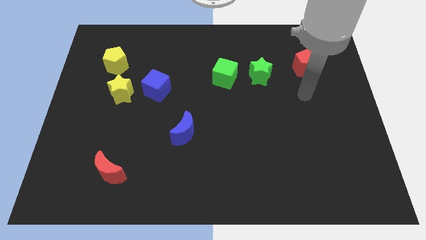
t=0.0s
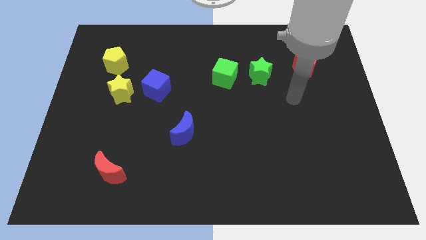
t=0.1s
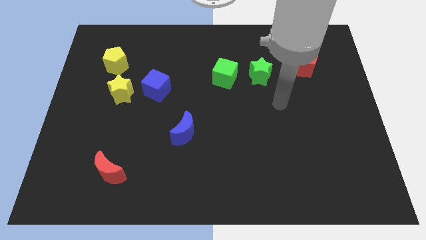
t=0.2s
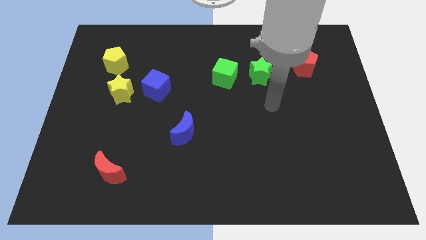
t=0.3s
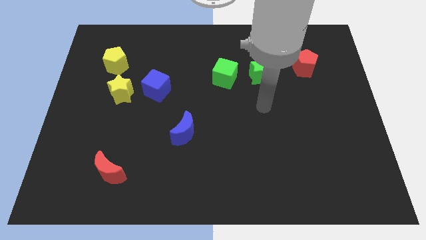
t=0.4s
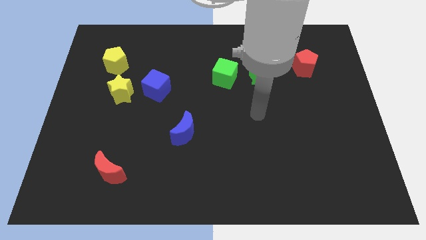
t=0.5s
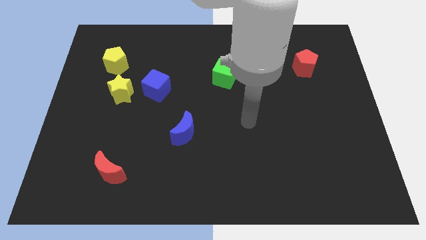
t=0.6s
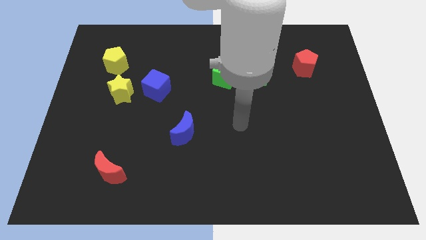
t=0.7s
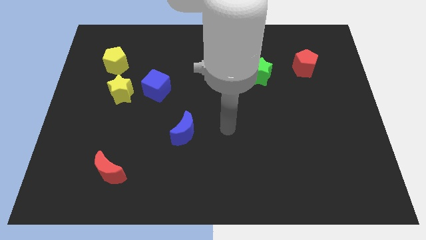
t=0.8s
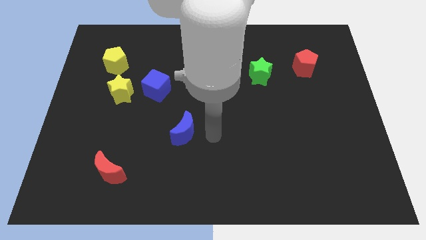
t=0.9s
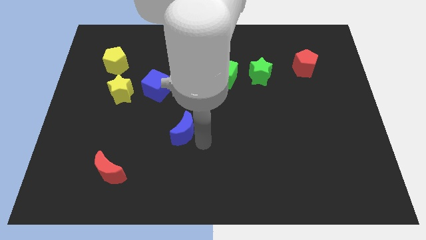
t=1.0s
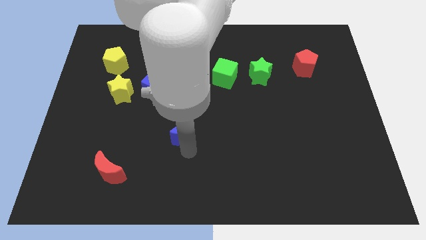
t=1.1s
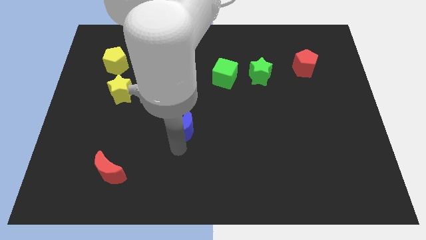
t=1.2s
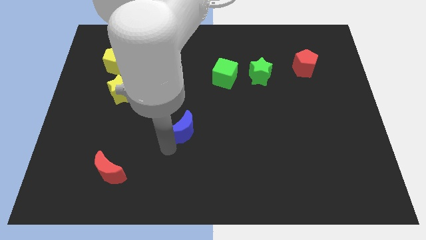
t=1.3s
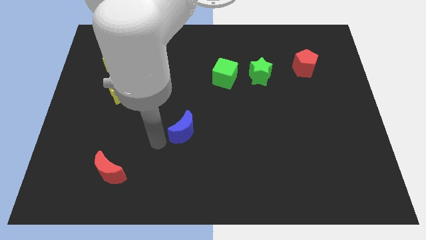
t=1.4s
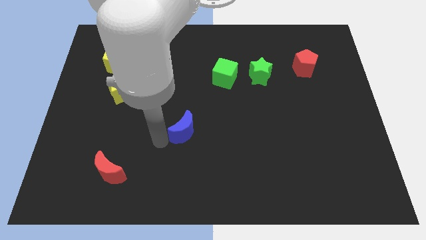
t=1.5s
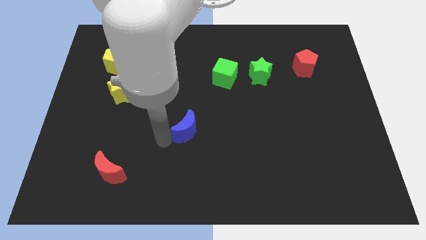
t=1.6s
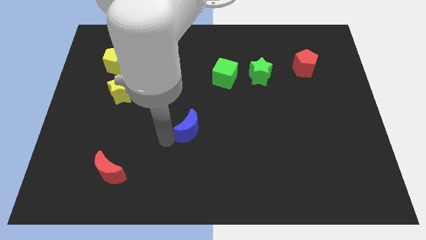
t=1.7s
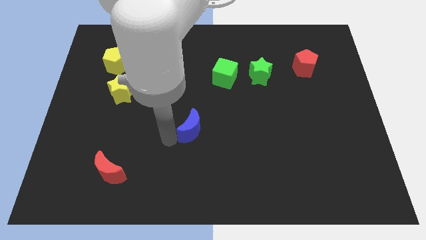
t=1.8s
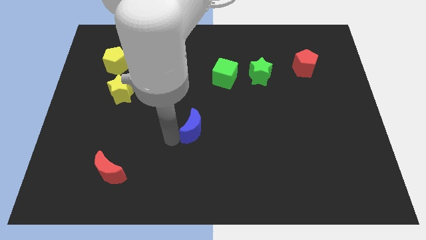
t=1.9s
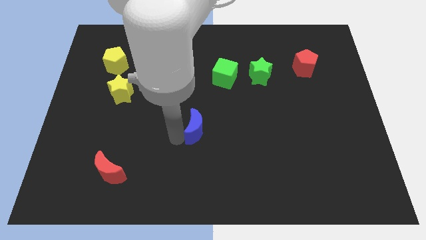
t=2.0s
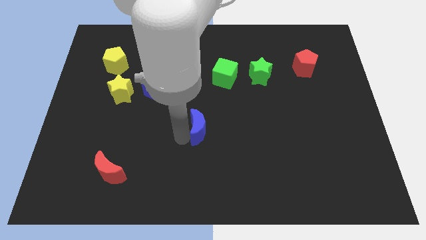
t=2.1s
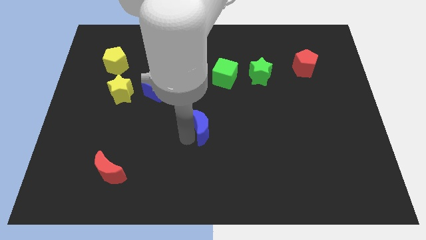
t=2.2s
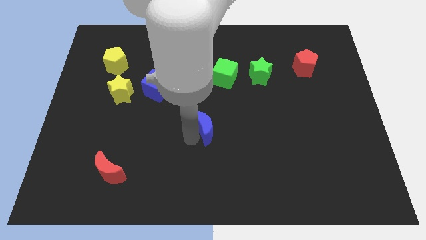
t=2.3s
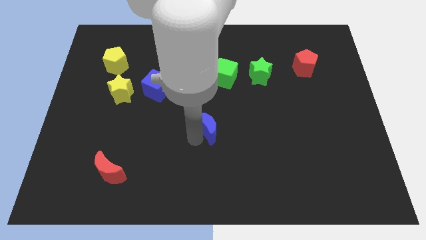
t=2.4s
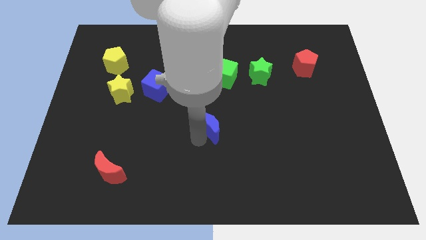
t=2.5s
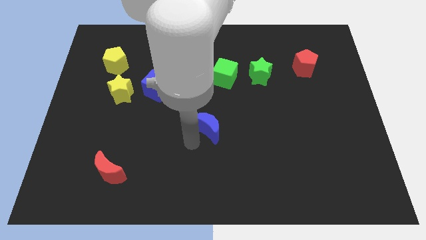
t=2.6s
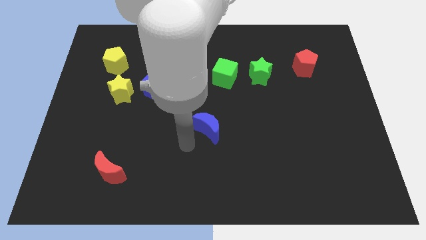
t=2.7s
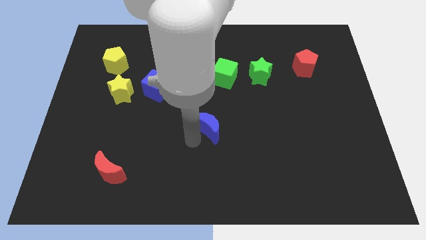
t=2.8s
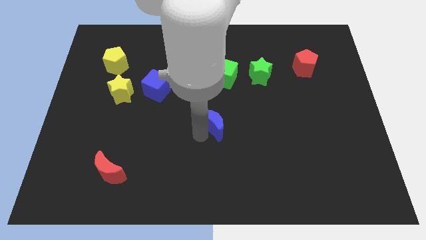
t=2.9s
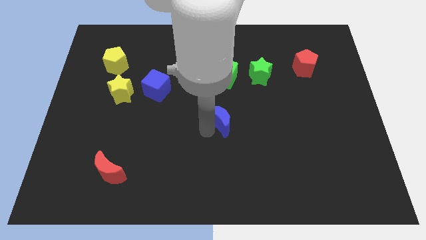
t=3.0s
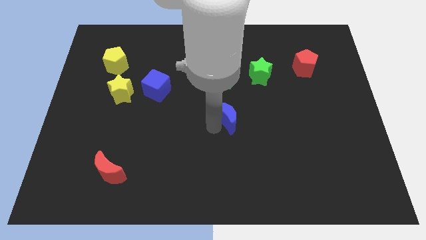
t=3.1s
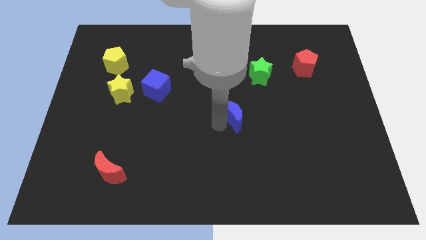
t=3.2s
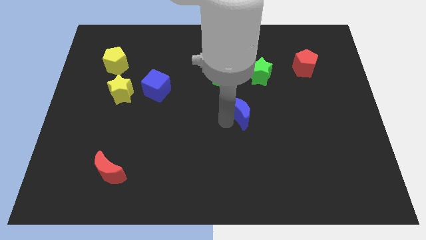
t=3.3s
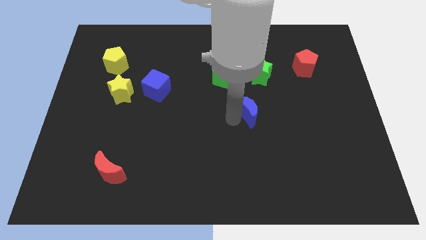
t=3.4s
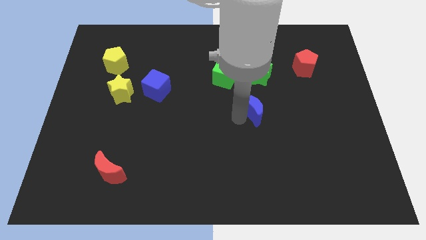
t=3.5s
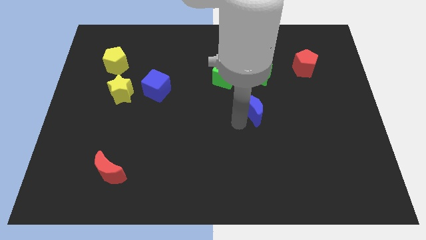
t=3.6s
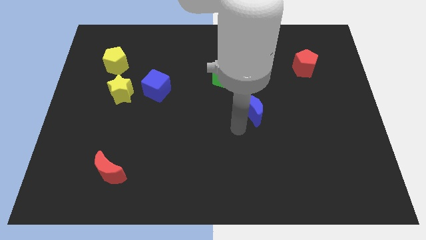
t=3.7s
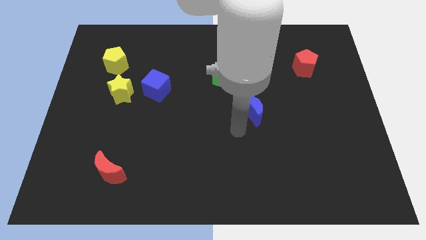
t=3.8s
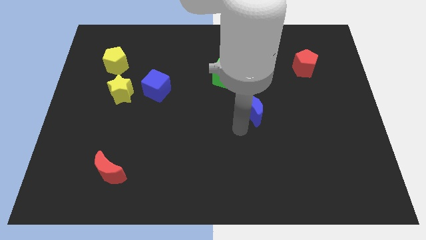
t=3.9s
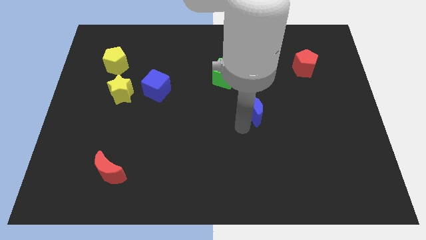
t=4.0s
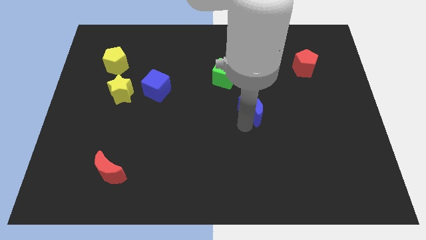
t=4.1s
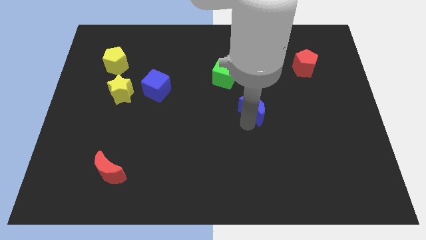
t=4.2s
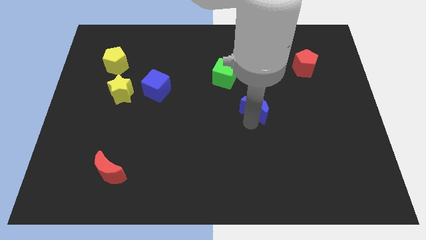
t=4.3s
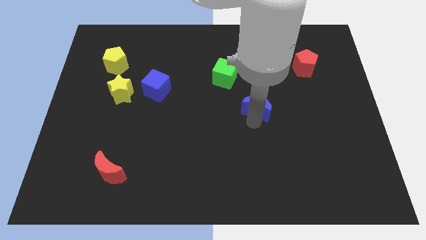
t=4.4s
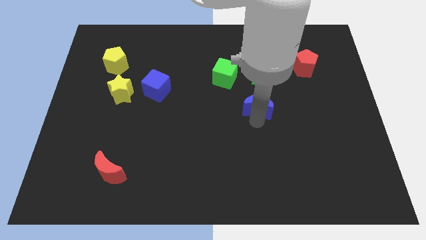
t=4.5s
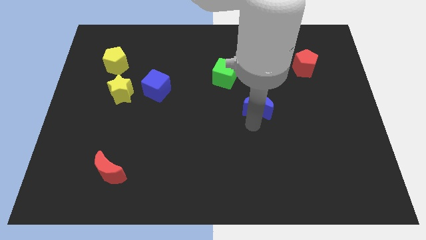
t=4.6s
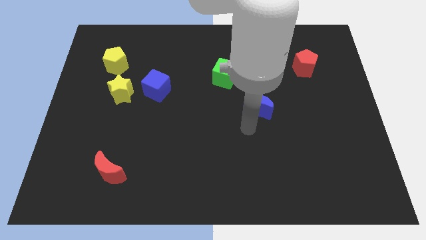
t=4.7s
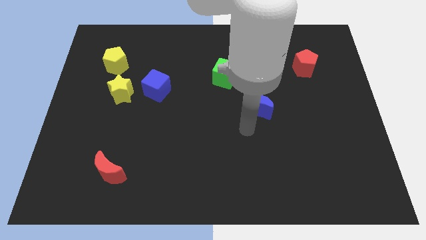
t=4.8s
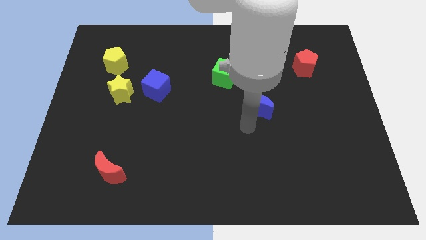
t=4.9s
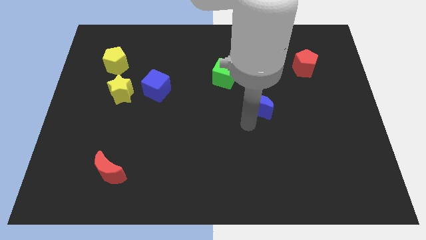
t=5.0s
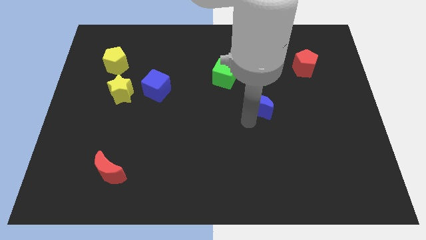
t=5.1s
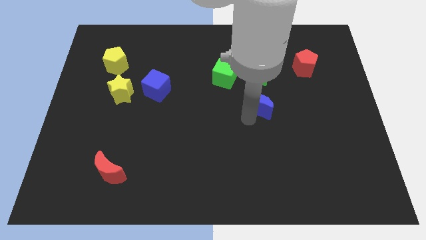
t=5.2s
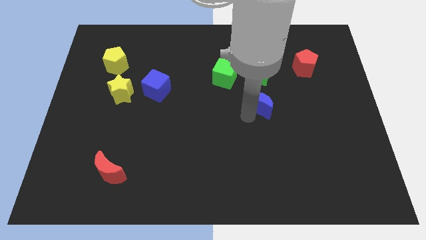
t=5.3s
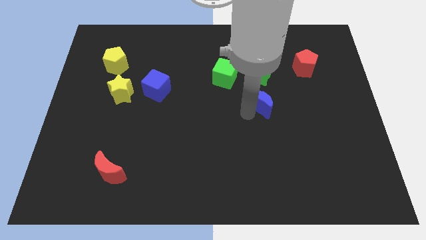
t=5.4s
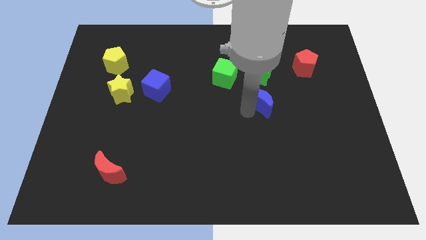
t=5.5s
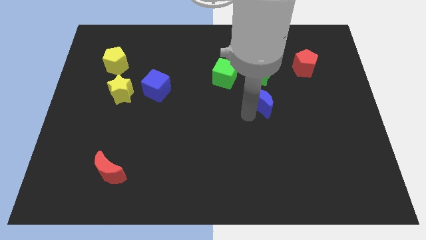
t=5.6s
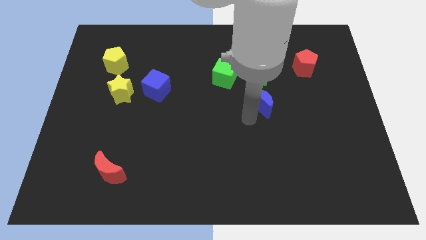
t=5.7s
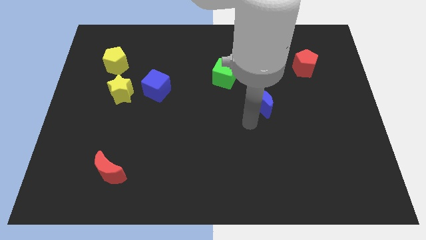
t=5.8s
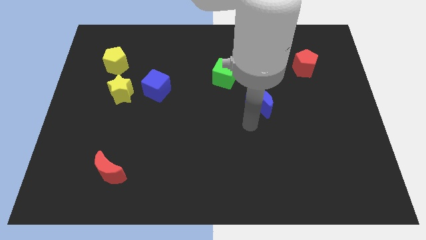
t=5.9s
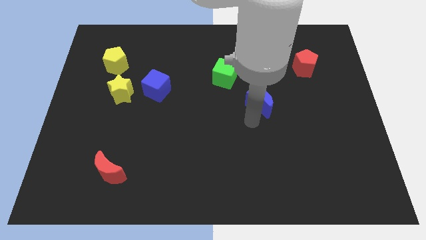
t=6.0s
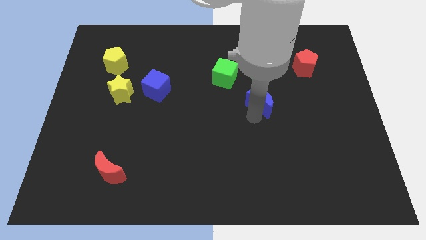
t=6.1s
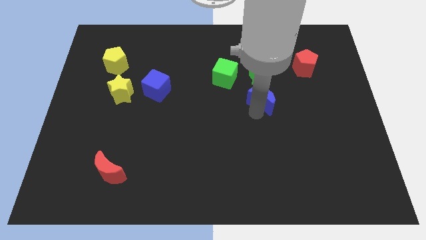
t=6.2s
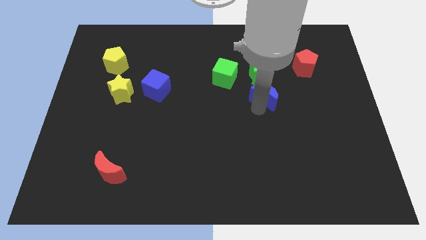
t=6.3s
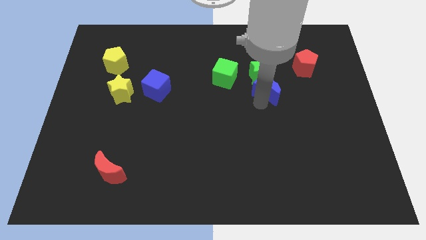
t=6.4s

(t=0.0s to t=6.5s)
move the blue moon upwards and right diagonally

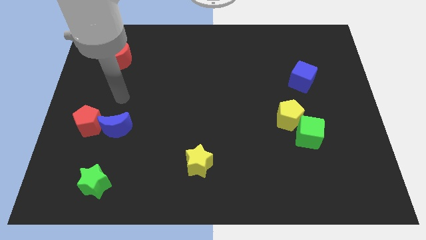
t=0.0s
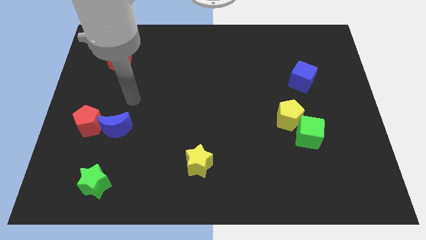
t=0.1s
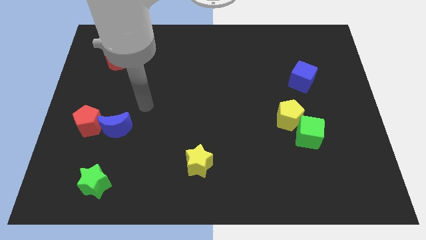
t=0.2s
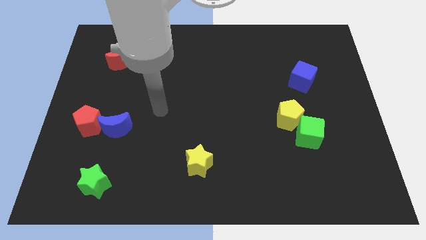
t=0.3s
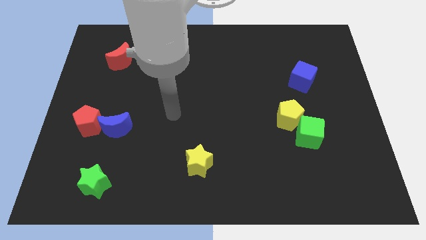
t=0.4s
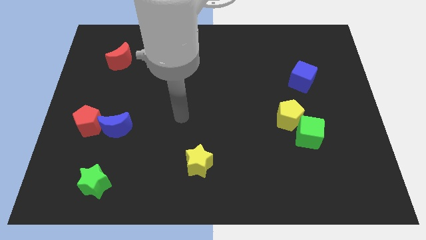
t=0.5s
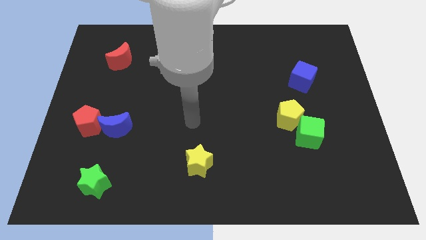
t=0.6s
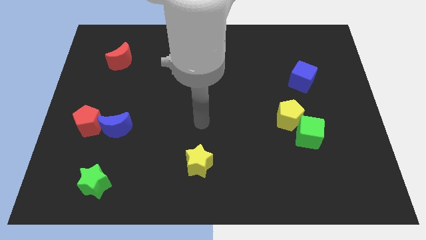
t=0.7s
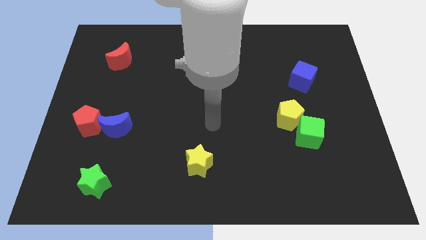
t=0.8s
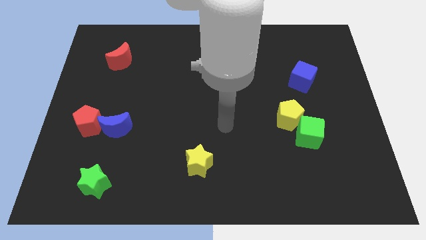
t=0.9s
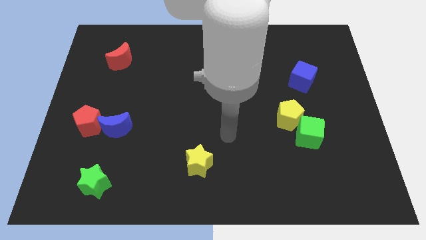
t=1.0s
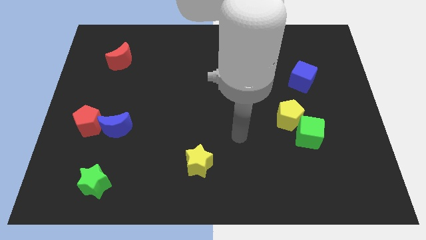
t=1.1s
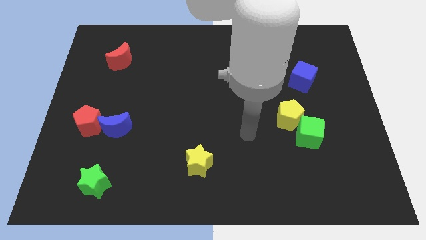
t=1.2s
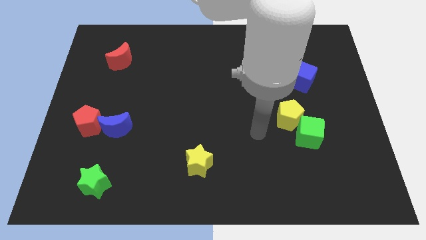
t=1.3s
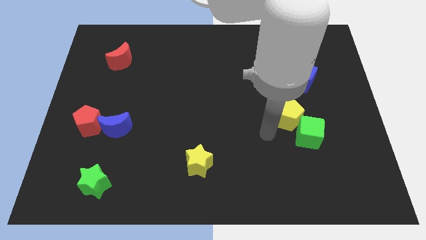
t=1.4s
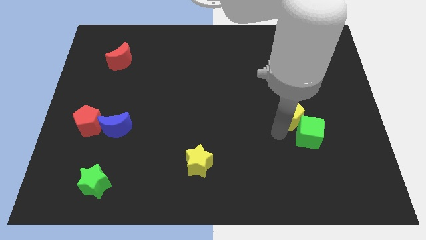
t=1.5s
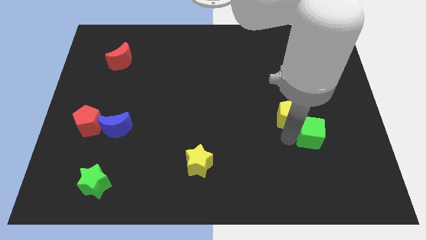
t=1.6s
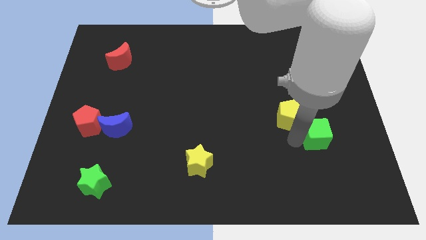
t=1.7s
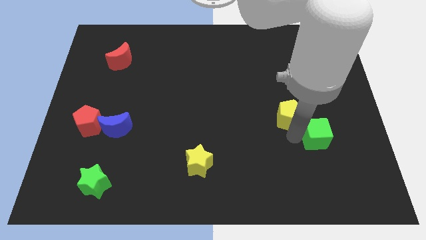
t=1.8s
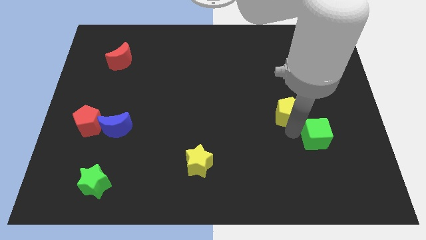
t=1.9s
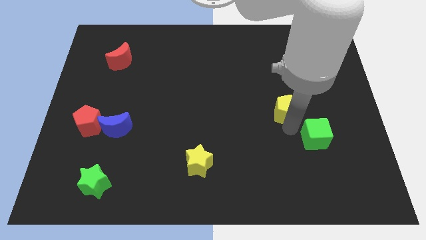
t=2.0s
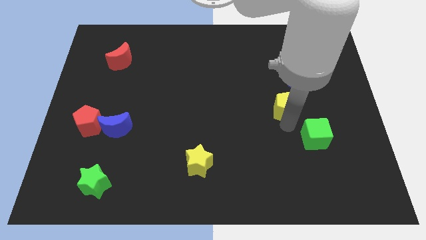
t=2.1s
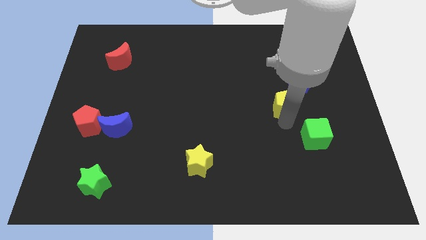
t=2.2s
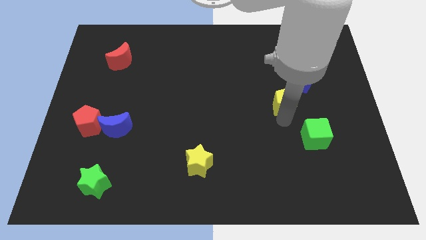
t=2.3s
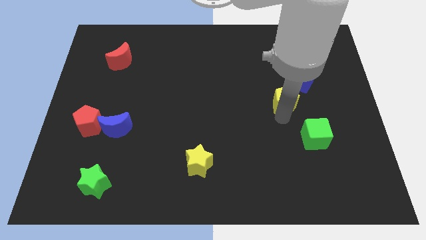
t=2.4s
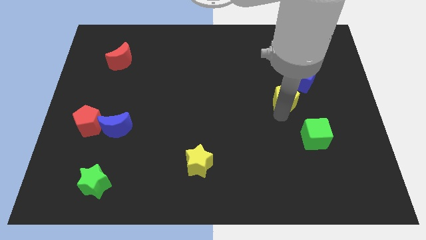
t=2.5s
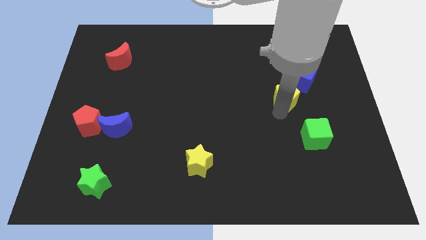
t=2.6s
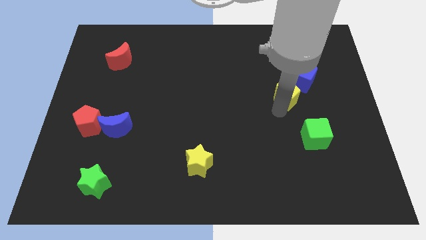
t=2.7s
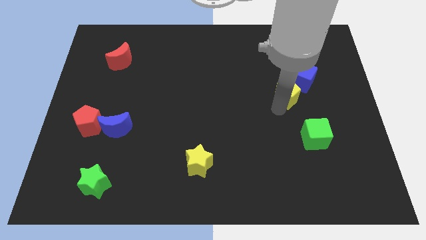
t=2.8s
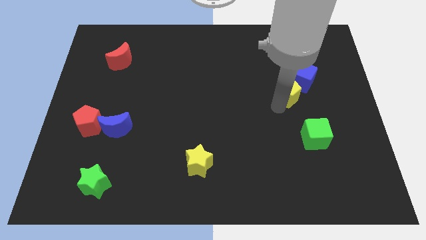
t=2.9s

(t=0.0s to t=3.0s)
slightly slide the yellow pentagon up
